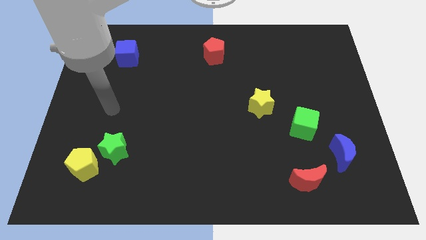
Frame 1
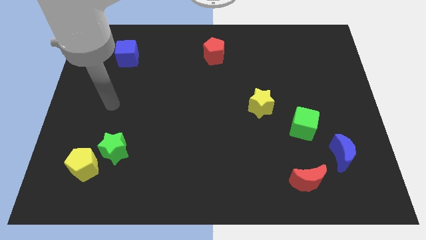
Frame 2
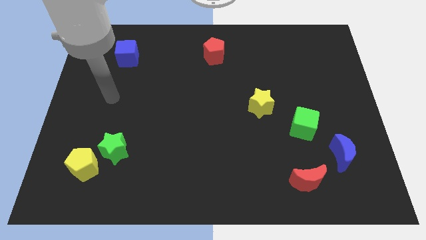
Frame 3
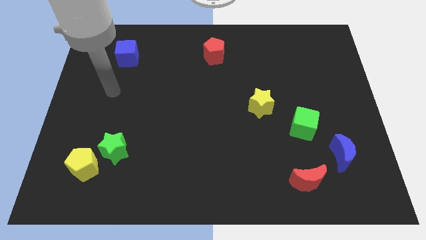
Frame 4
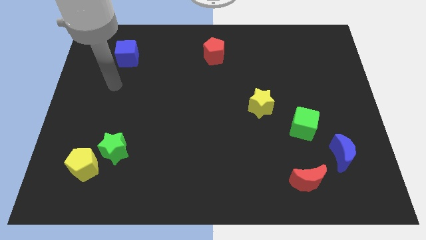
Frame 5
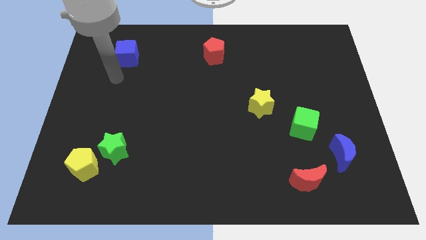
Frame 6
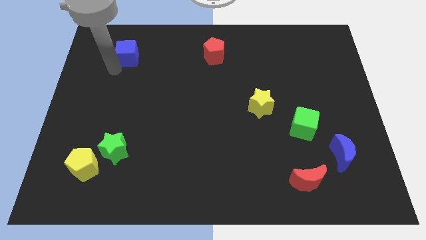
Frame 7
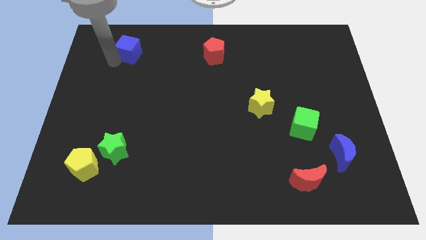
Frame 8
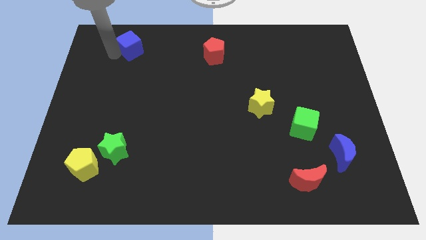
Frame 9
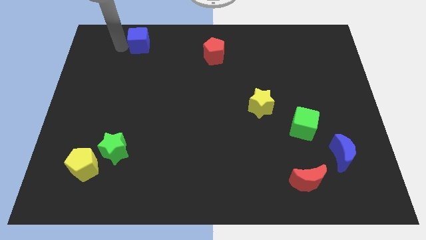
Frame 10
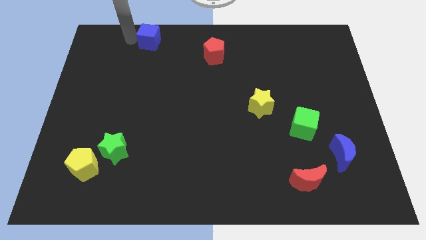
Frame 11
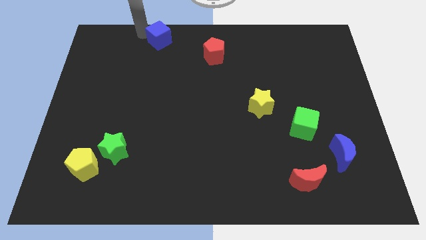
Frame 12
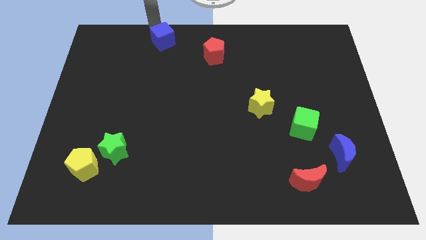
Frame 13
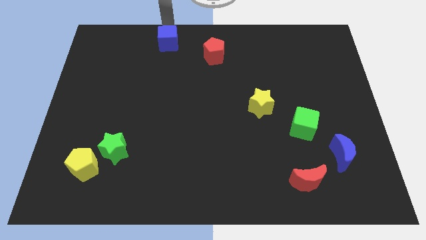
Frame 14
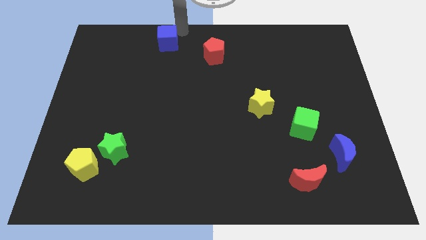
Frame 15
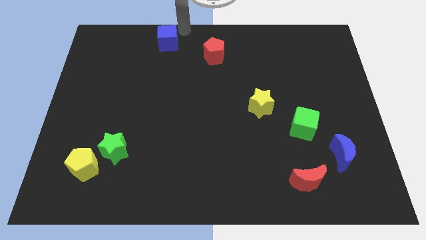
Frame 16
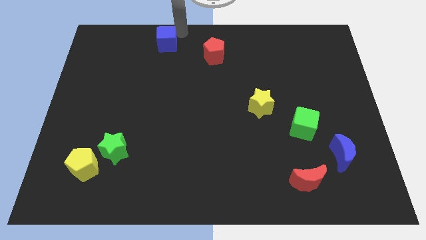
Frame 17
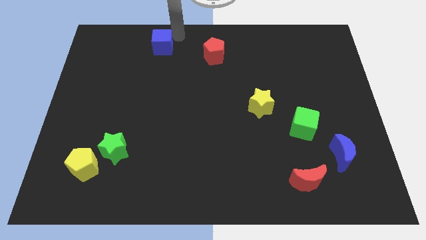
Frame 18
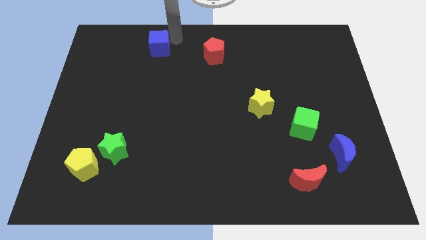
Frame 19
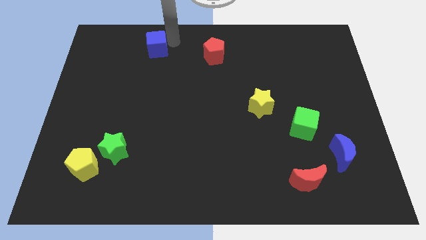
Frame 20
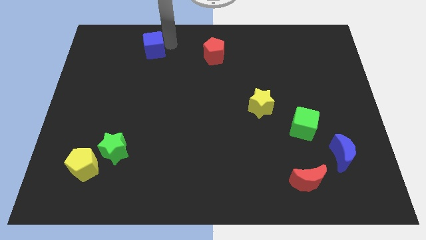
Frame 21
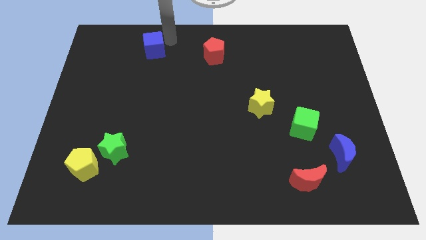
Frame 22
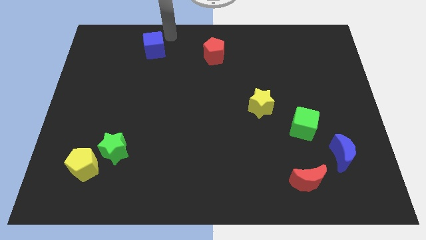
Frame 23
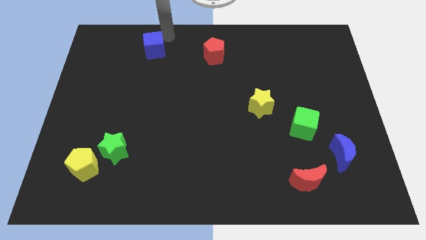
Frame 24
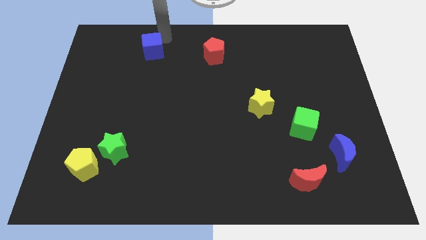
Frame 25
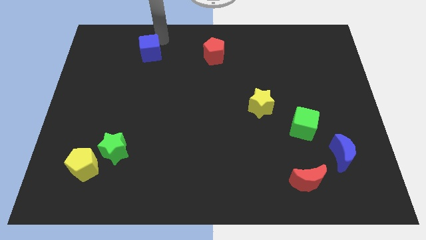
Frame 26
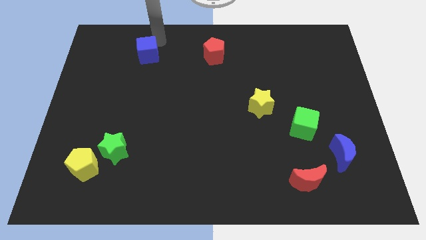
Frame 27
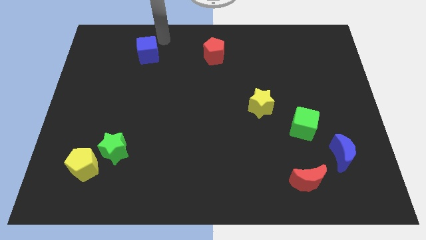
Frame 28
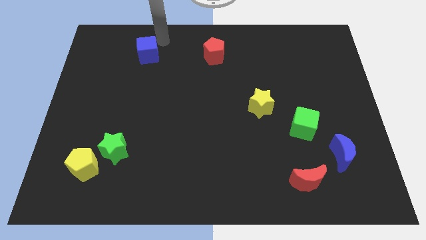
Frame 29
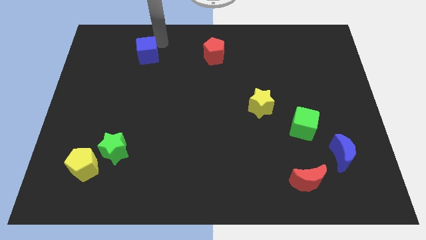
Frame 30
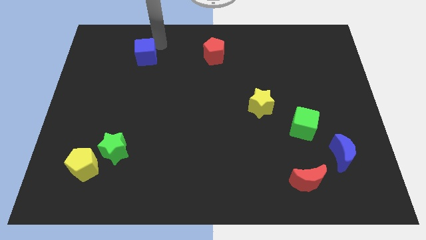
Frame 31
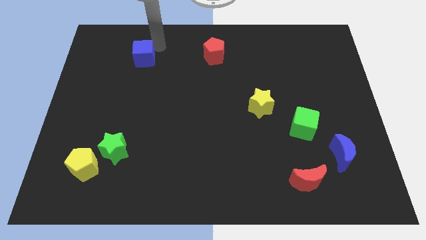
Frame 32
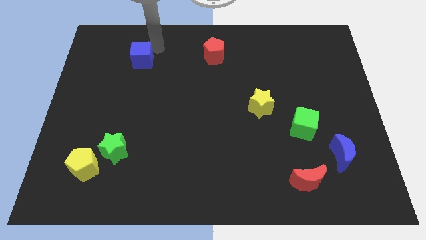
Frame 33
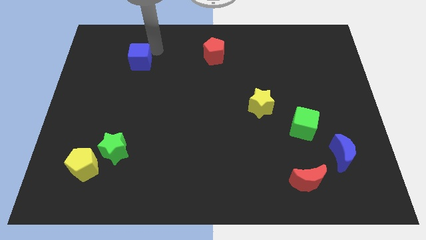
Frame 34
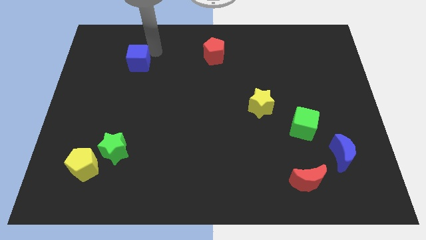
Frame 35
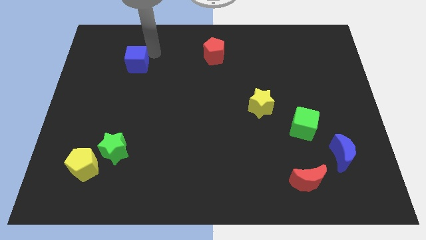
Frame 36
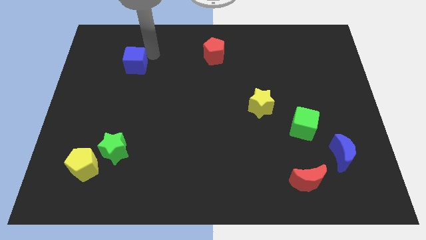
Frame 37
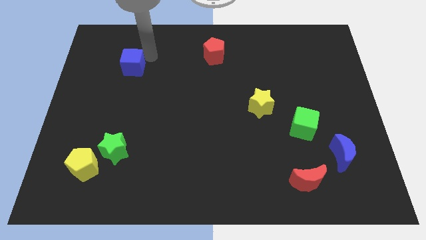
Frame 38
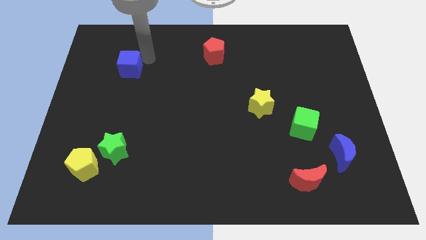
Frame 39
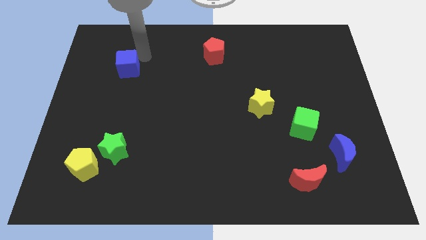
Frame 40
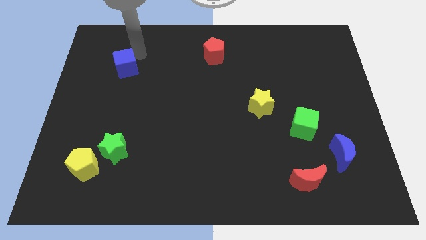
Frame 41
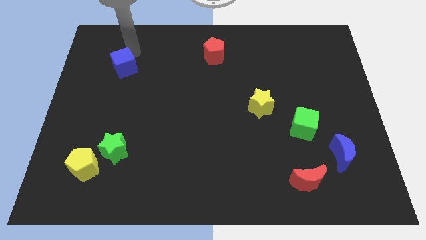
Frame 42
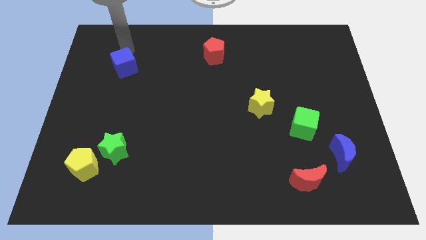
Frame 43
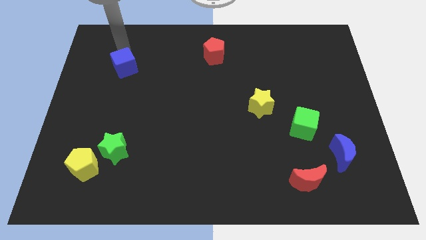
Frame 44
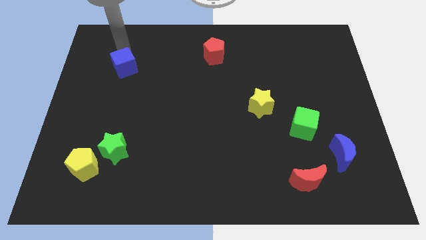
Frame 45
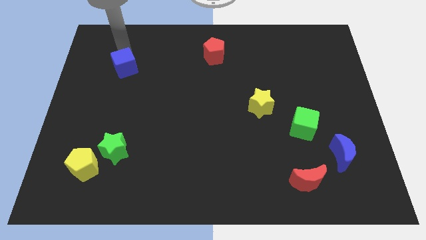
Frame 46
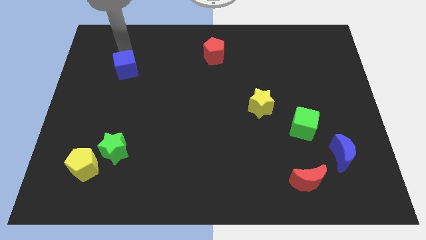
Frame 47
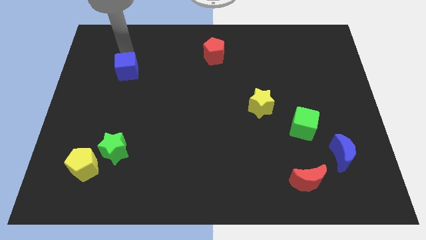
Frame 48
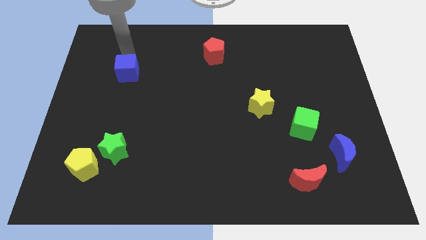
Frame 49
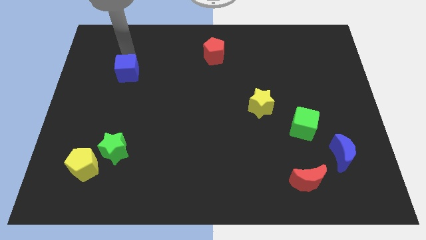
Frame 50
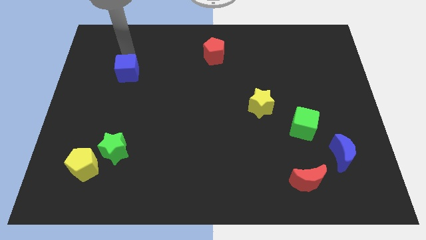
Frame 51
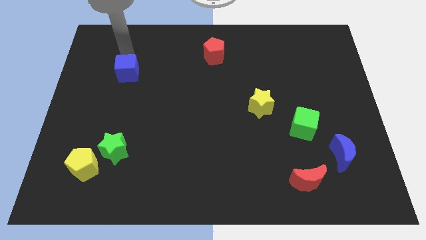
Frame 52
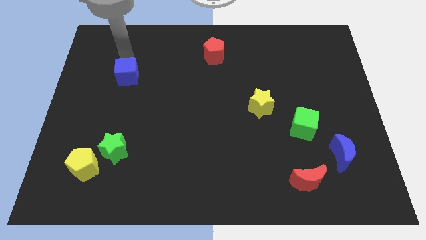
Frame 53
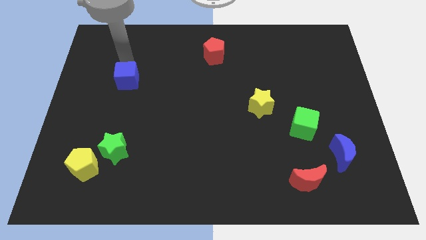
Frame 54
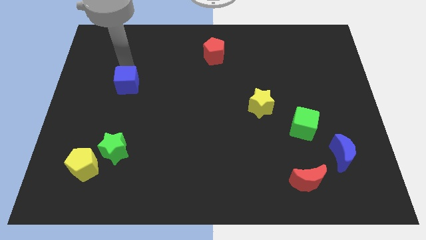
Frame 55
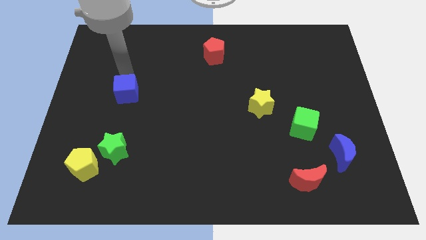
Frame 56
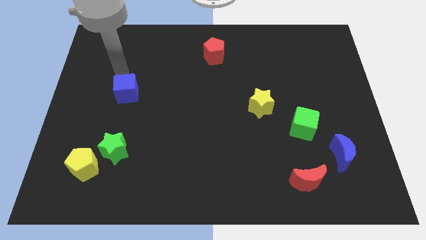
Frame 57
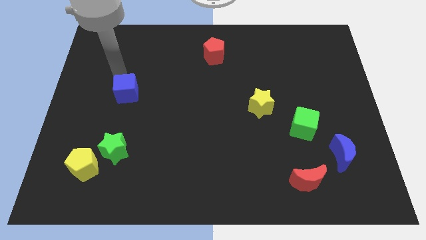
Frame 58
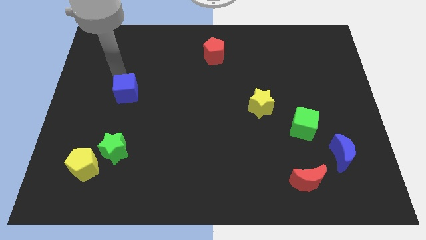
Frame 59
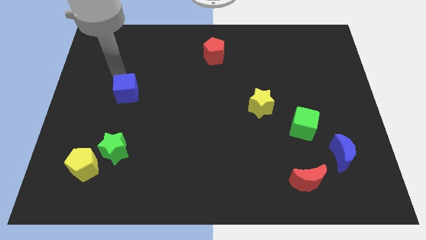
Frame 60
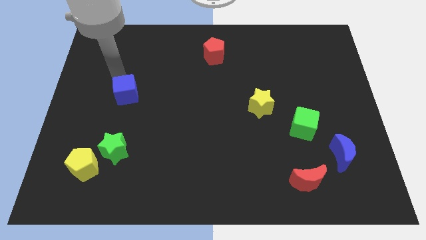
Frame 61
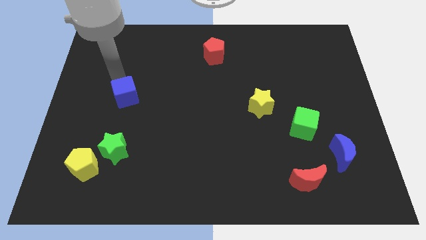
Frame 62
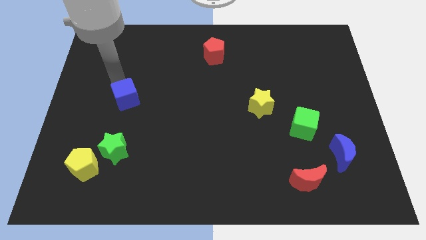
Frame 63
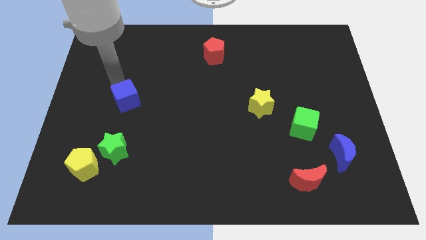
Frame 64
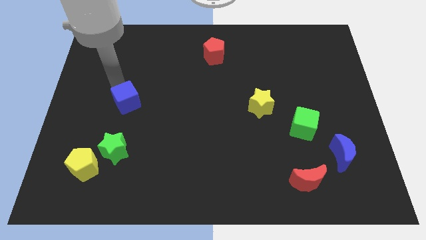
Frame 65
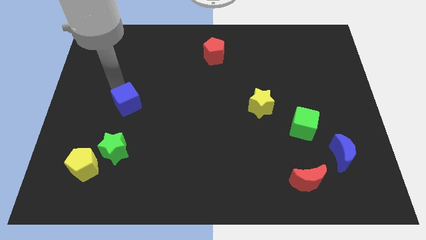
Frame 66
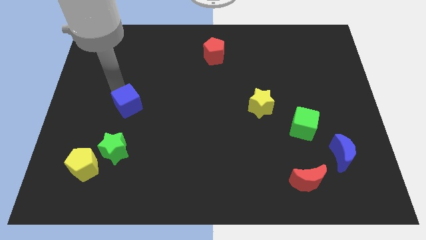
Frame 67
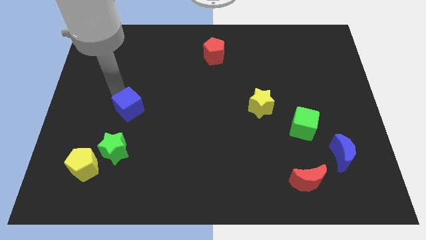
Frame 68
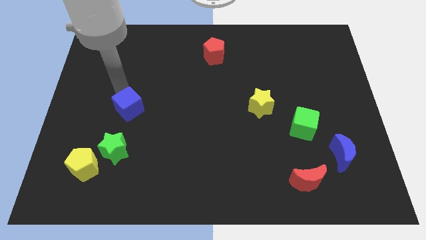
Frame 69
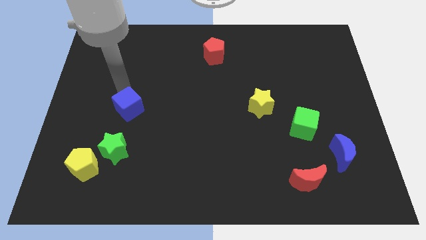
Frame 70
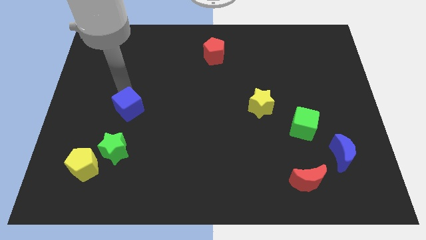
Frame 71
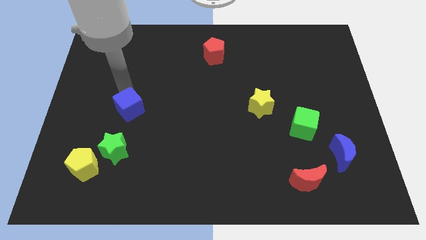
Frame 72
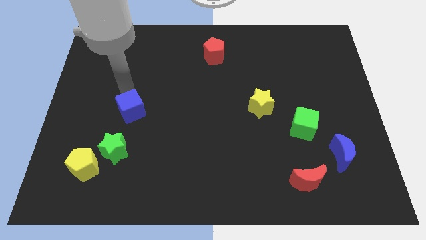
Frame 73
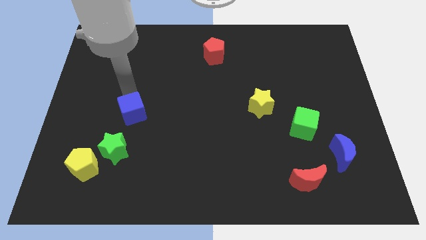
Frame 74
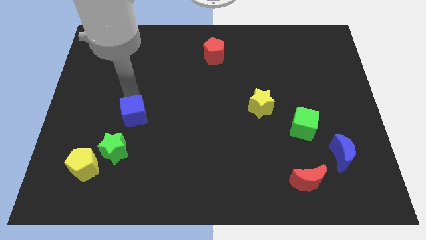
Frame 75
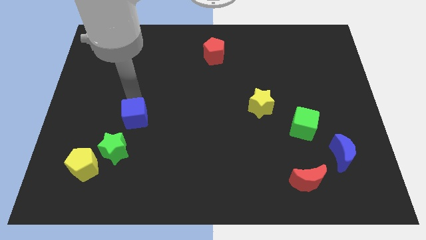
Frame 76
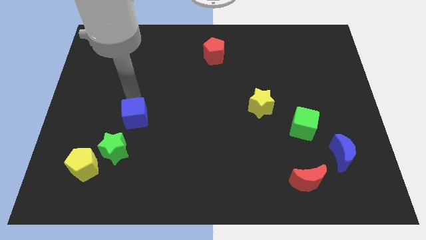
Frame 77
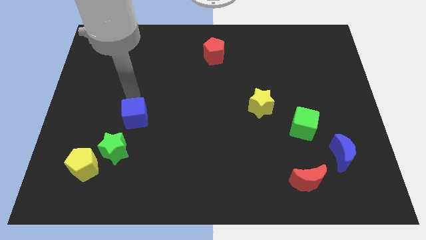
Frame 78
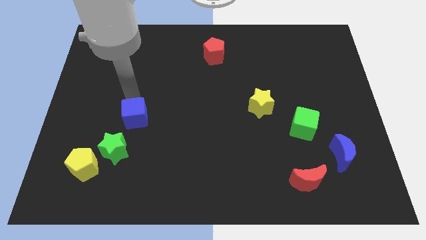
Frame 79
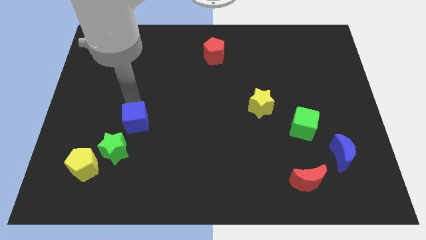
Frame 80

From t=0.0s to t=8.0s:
slide the blue cube down

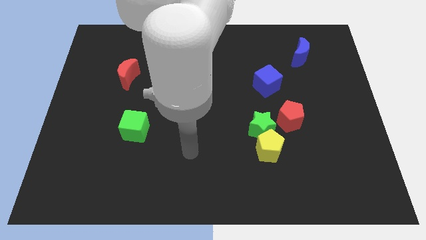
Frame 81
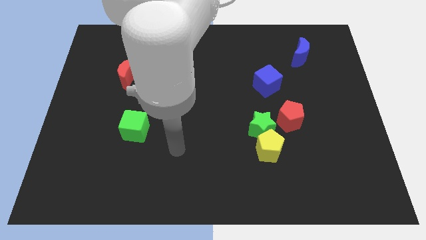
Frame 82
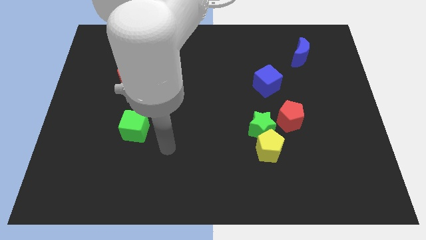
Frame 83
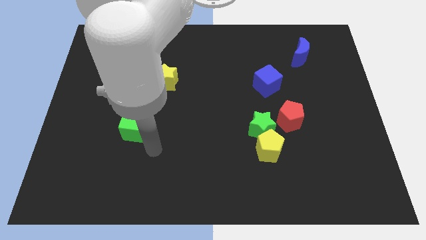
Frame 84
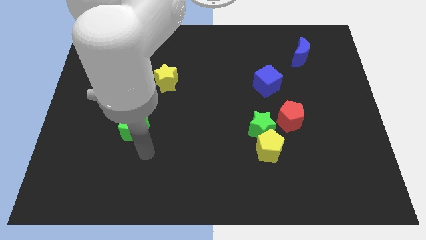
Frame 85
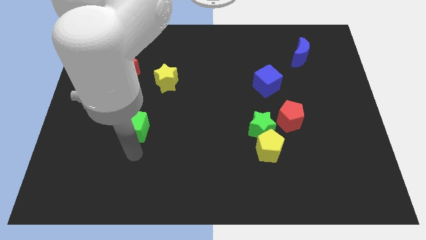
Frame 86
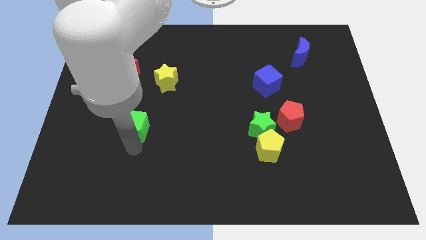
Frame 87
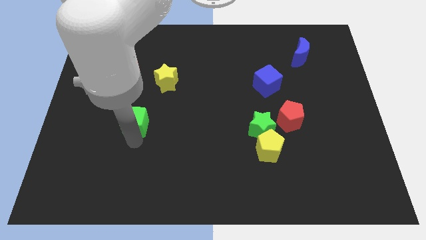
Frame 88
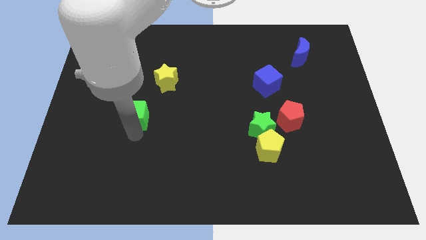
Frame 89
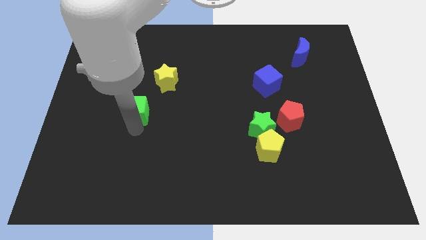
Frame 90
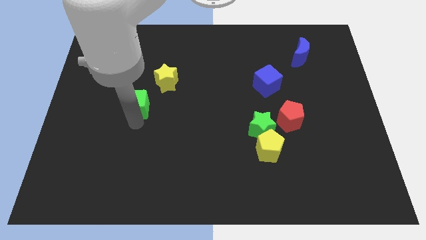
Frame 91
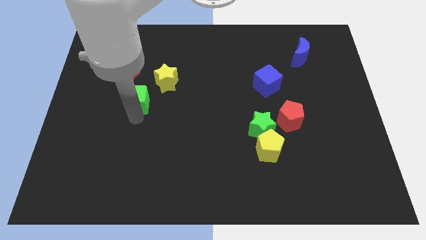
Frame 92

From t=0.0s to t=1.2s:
push the green cube upwards somewhat
